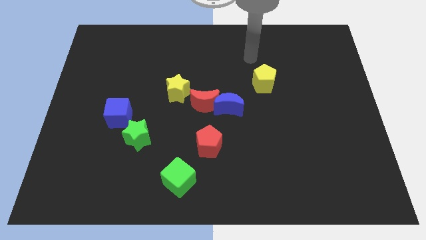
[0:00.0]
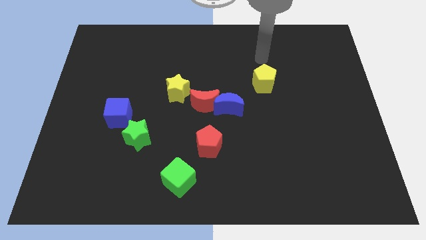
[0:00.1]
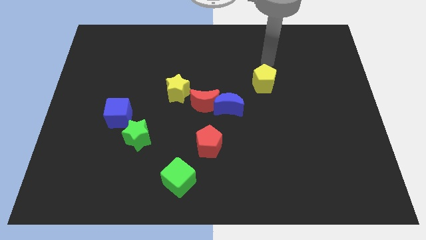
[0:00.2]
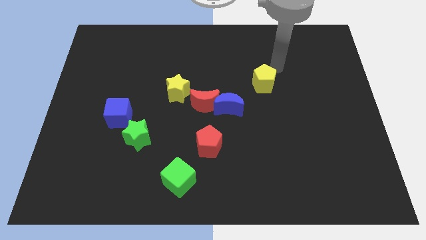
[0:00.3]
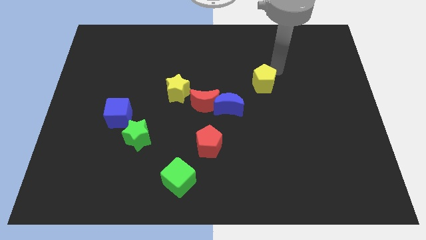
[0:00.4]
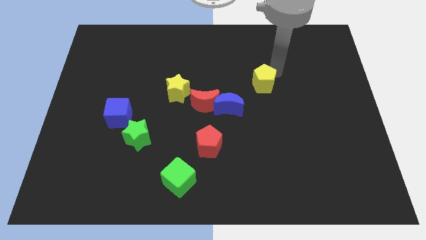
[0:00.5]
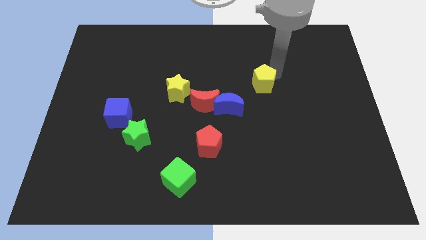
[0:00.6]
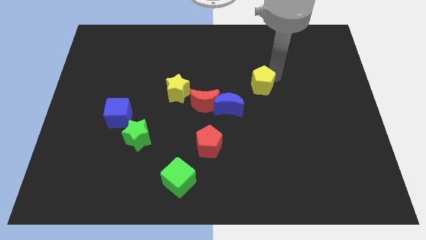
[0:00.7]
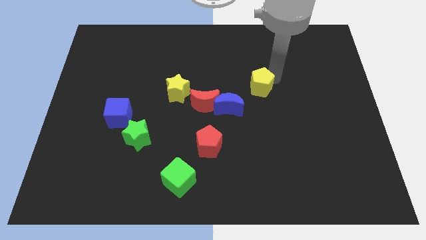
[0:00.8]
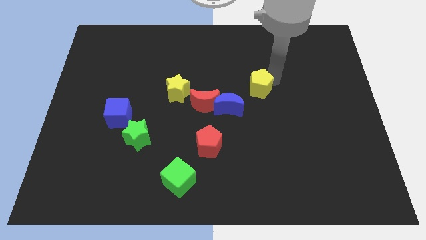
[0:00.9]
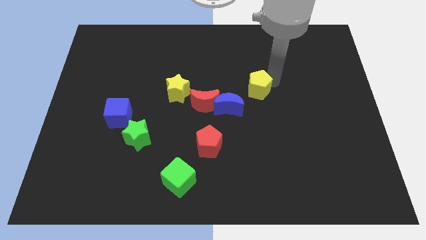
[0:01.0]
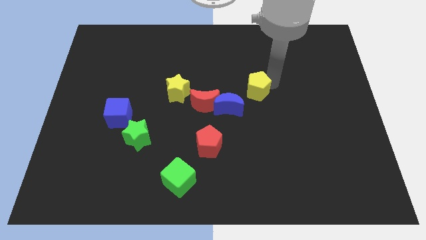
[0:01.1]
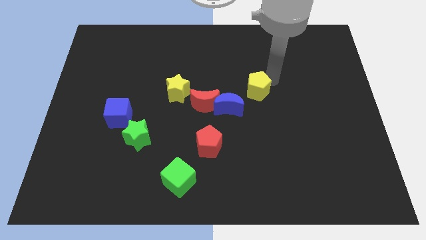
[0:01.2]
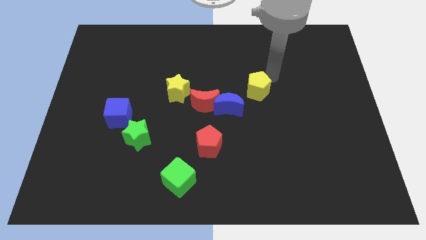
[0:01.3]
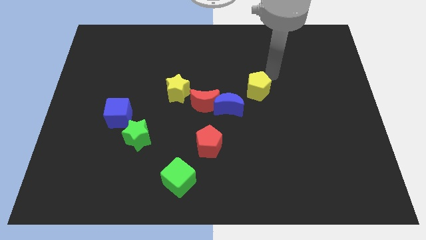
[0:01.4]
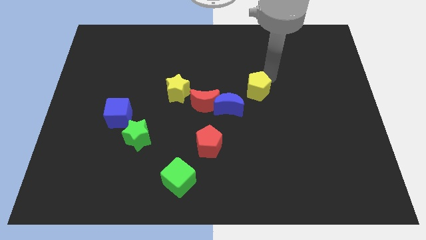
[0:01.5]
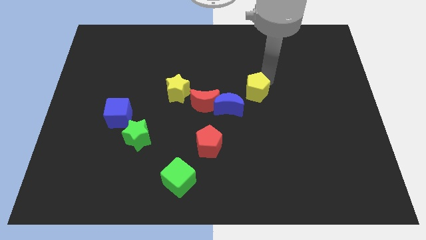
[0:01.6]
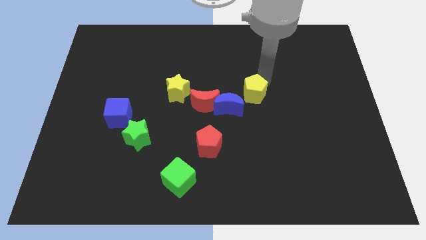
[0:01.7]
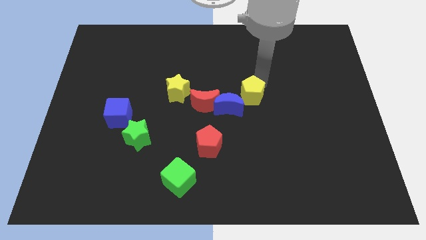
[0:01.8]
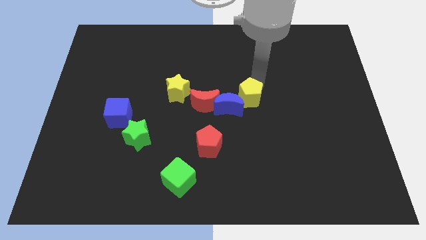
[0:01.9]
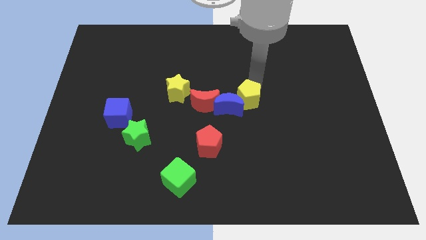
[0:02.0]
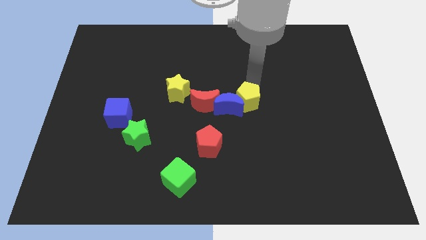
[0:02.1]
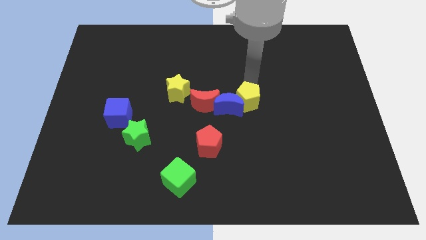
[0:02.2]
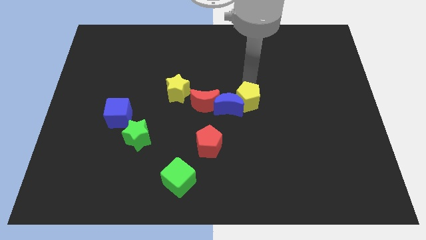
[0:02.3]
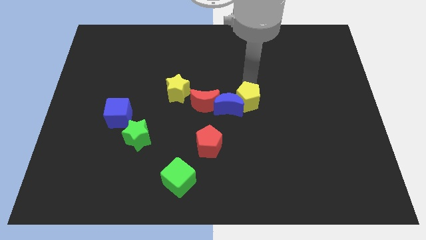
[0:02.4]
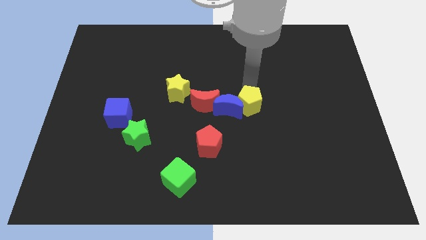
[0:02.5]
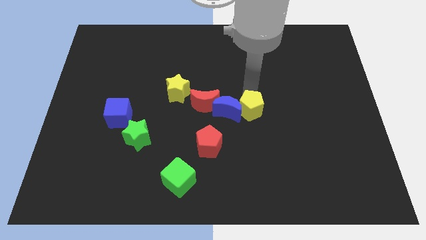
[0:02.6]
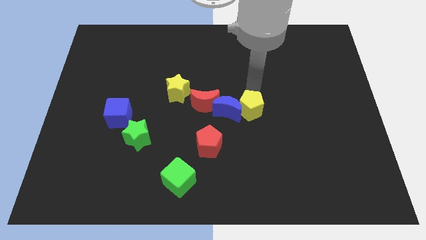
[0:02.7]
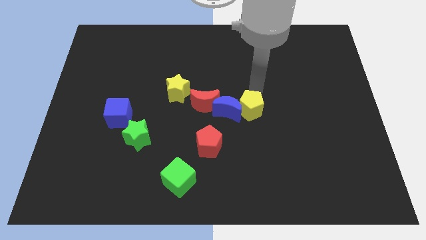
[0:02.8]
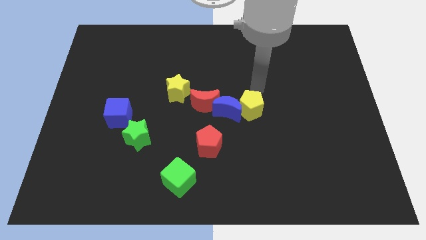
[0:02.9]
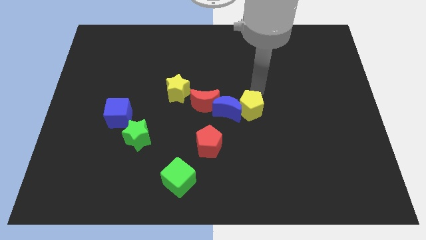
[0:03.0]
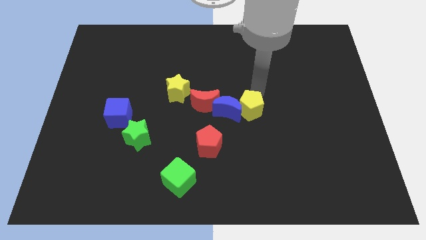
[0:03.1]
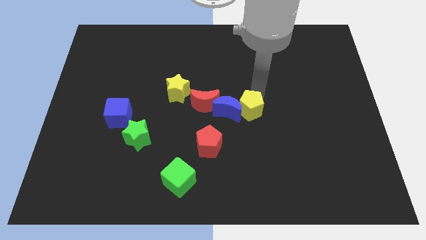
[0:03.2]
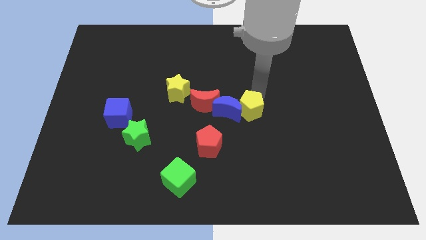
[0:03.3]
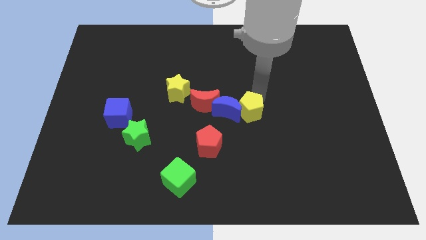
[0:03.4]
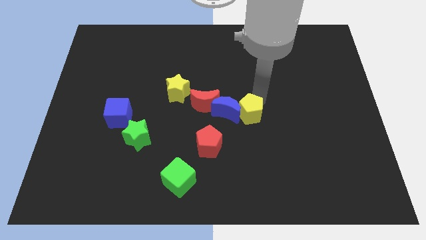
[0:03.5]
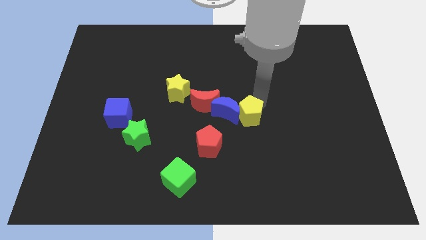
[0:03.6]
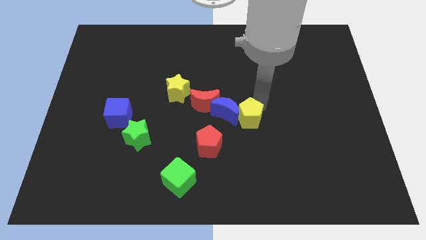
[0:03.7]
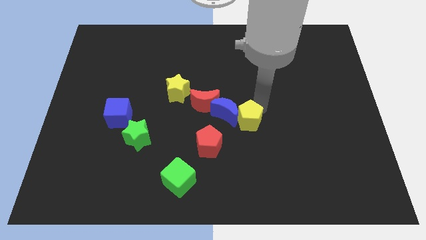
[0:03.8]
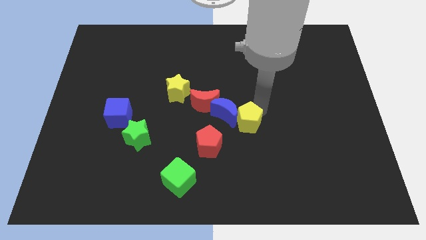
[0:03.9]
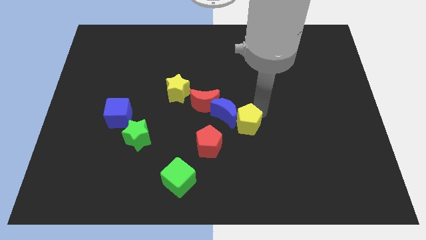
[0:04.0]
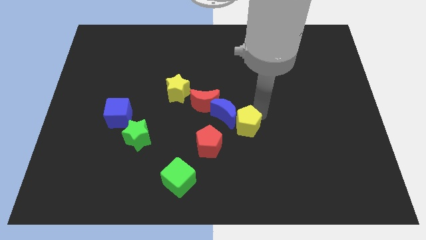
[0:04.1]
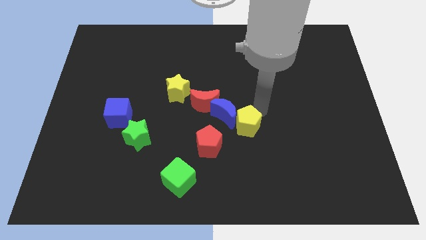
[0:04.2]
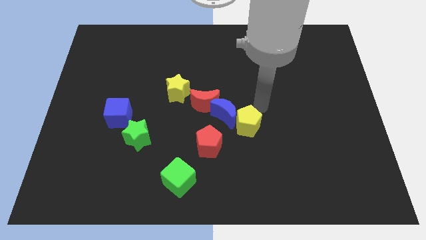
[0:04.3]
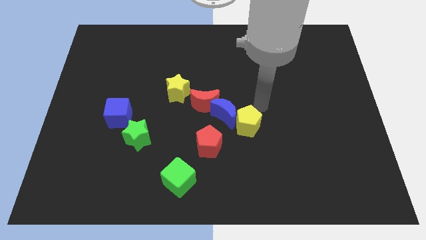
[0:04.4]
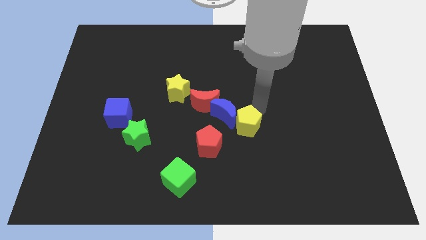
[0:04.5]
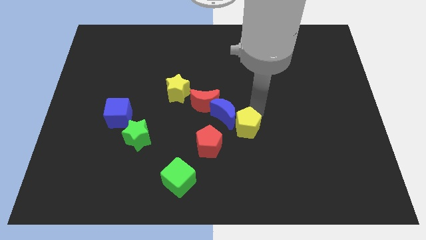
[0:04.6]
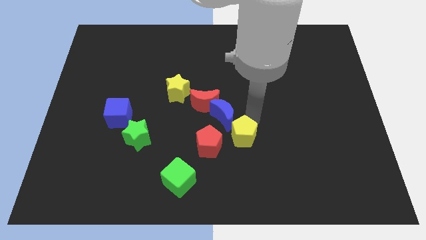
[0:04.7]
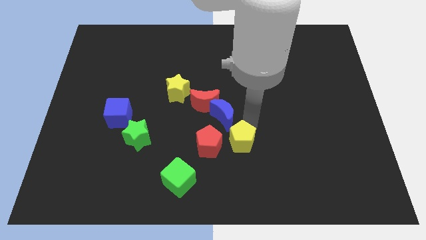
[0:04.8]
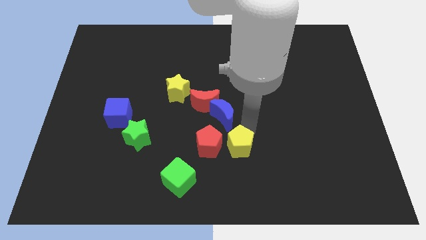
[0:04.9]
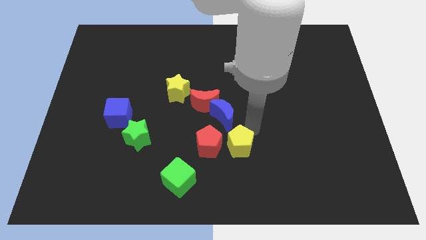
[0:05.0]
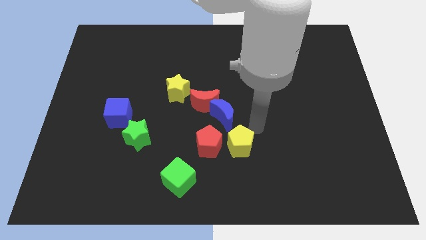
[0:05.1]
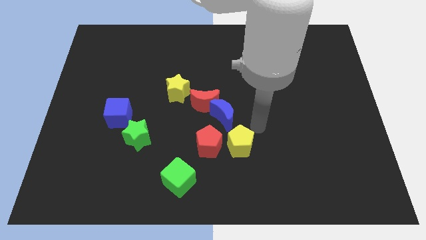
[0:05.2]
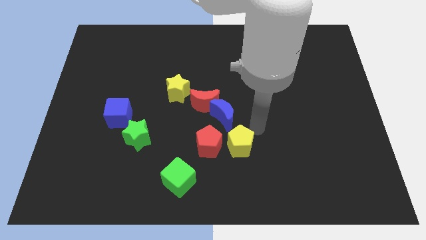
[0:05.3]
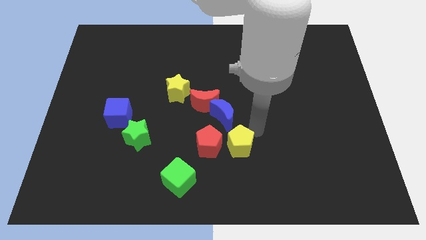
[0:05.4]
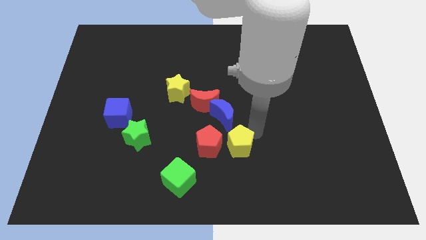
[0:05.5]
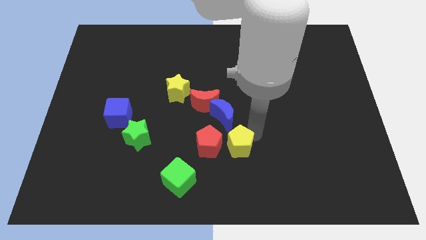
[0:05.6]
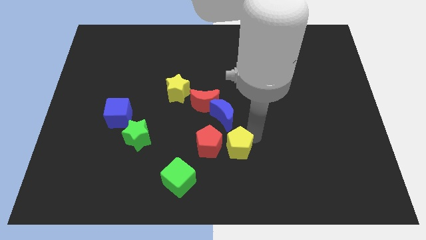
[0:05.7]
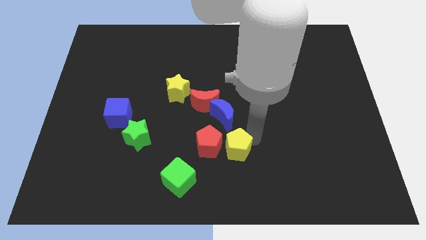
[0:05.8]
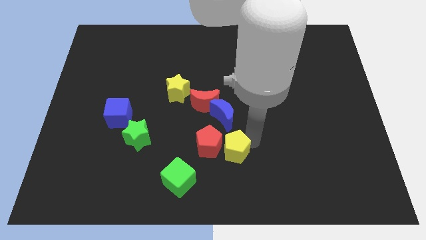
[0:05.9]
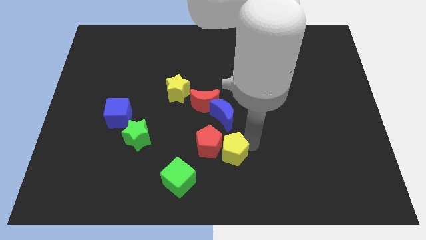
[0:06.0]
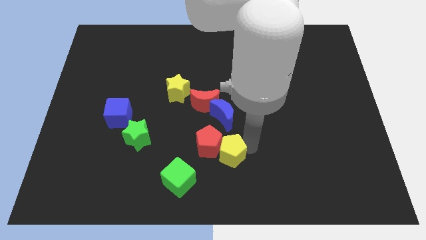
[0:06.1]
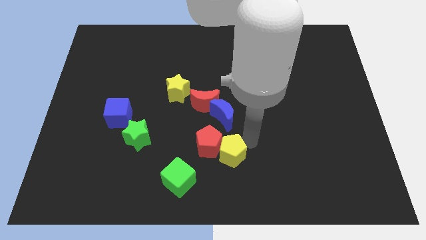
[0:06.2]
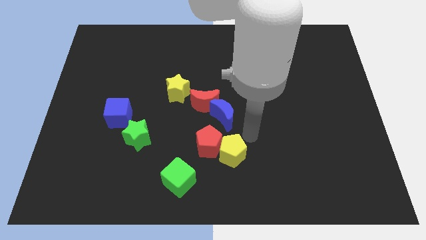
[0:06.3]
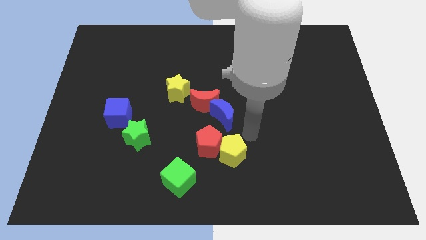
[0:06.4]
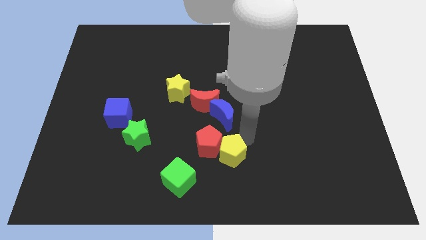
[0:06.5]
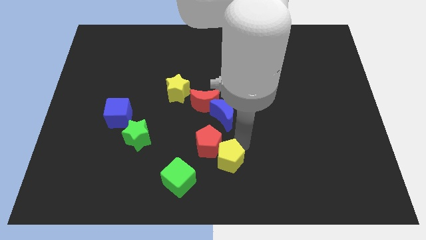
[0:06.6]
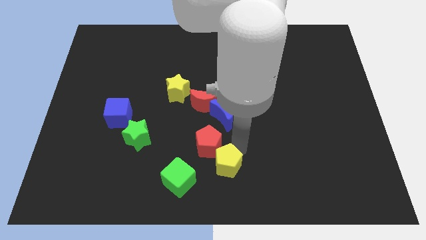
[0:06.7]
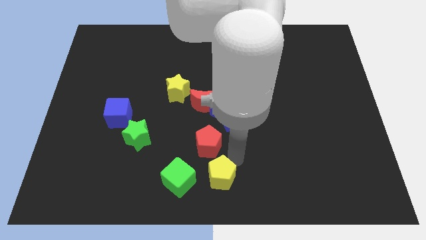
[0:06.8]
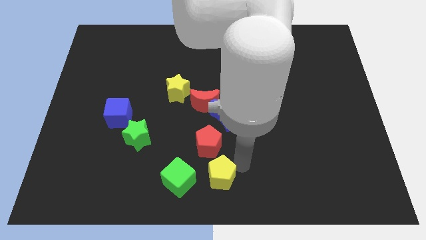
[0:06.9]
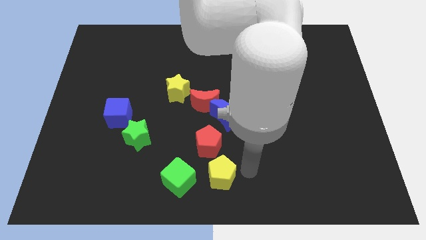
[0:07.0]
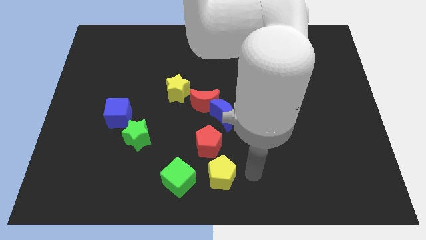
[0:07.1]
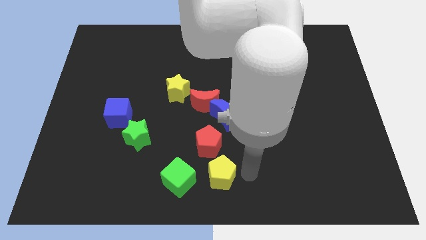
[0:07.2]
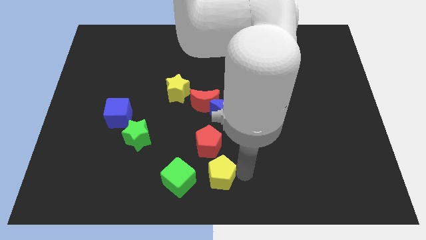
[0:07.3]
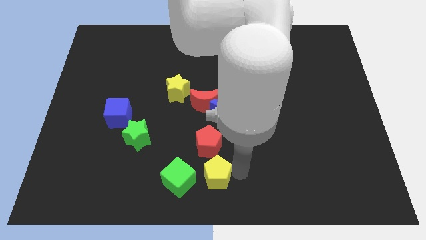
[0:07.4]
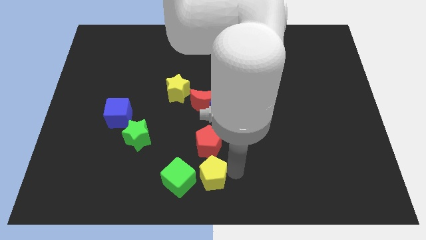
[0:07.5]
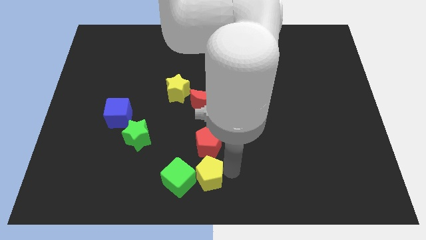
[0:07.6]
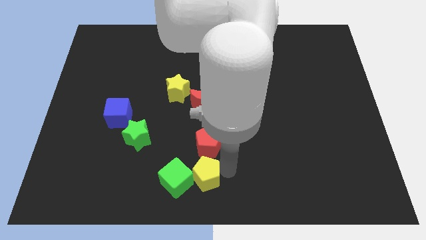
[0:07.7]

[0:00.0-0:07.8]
move the yellow pentagon towards the green cube
